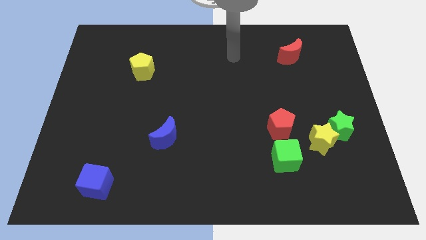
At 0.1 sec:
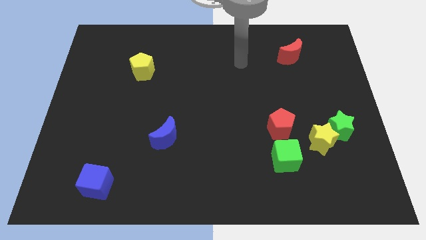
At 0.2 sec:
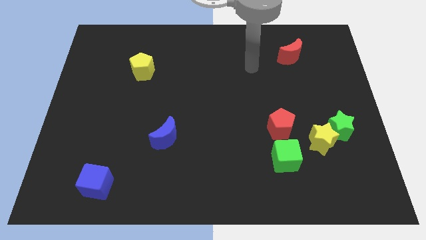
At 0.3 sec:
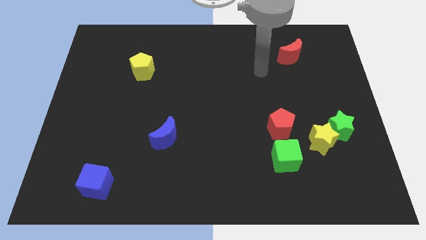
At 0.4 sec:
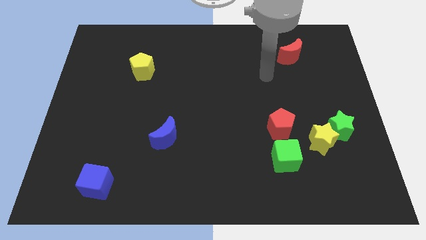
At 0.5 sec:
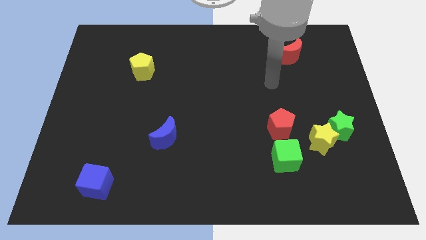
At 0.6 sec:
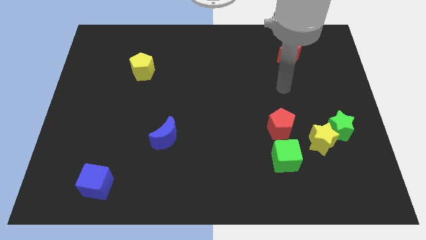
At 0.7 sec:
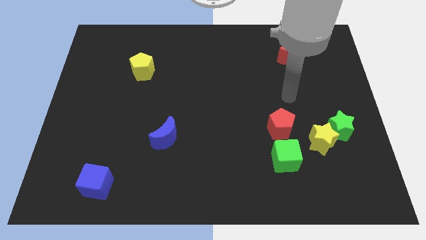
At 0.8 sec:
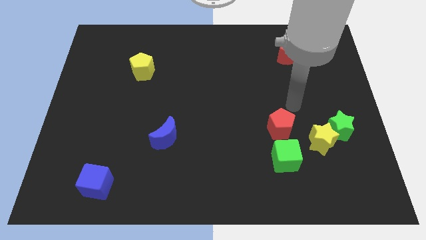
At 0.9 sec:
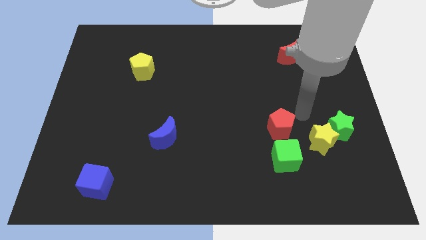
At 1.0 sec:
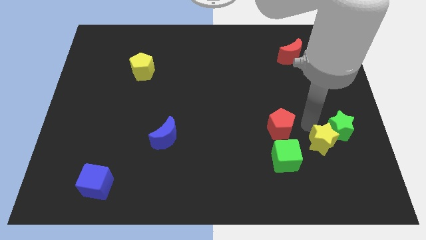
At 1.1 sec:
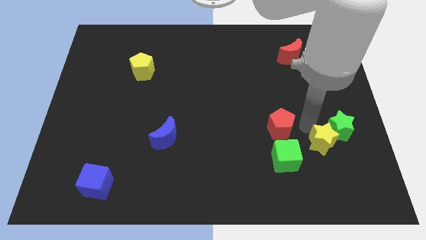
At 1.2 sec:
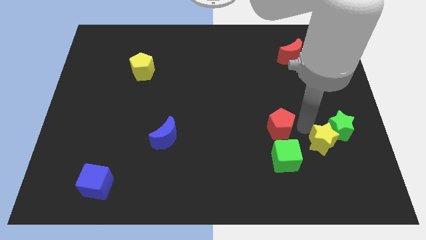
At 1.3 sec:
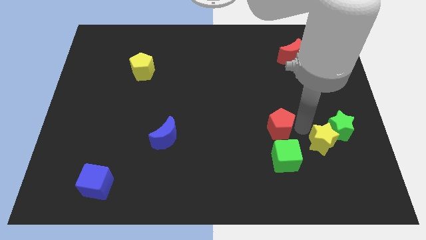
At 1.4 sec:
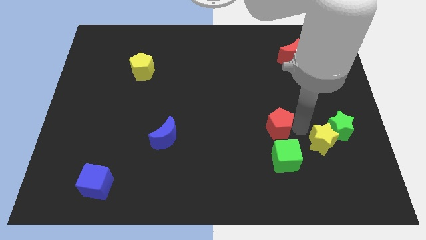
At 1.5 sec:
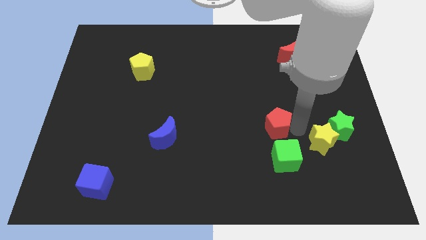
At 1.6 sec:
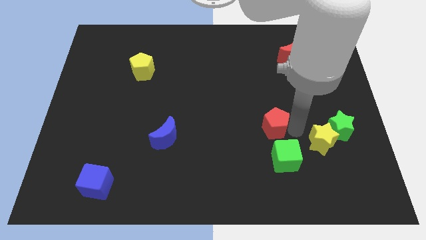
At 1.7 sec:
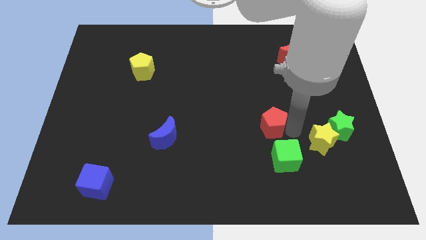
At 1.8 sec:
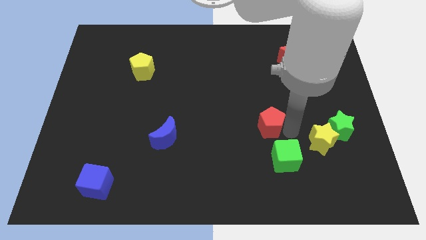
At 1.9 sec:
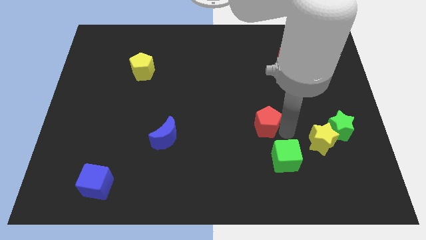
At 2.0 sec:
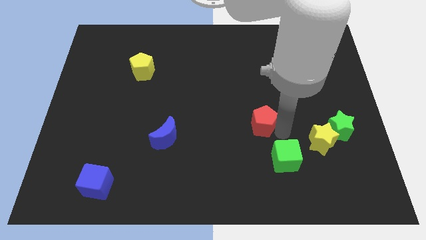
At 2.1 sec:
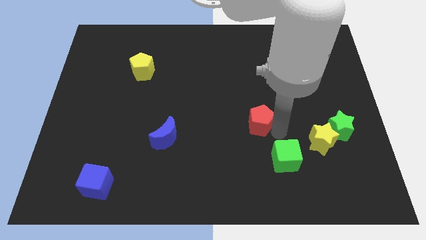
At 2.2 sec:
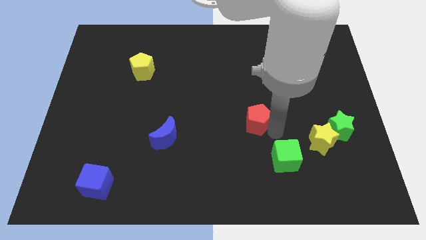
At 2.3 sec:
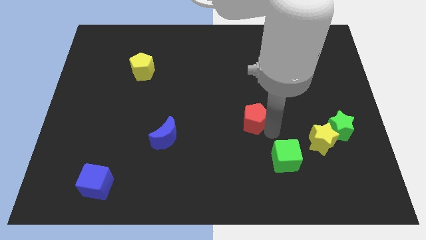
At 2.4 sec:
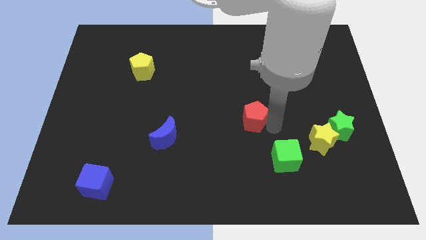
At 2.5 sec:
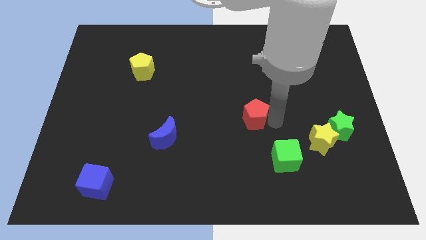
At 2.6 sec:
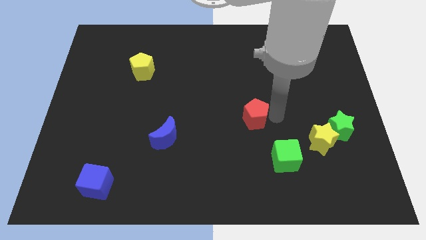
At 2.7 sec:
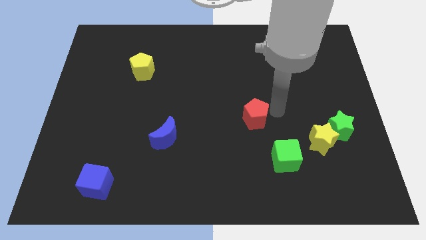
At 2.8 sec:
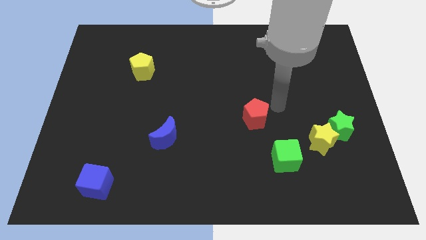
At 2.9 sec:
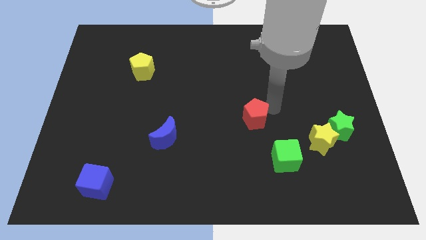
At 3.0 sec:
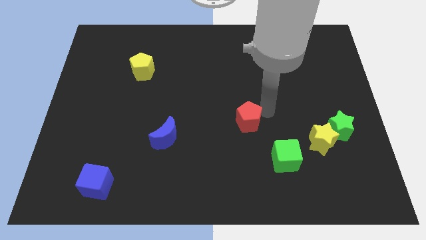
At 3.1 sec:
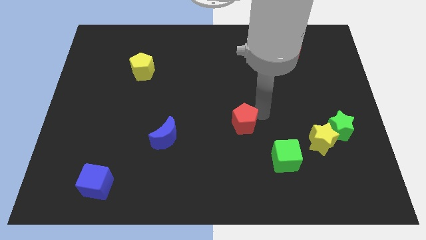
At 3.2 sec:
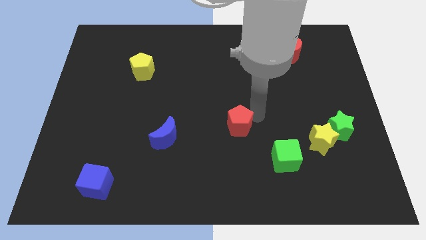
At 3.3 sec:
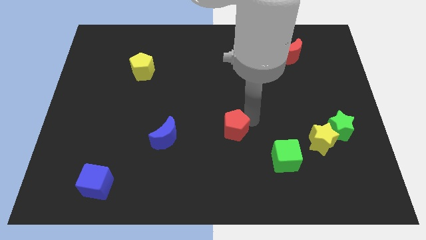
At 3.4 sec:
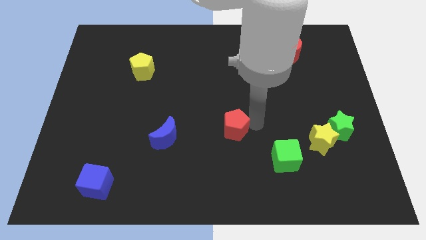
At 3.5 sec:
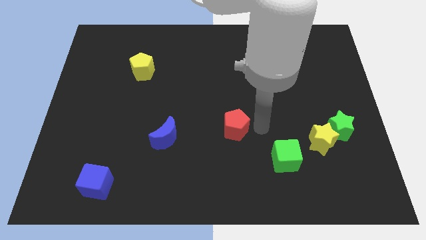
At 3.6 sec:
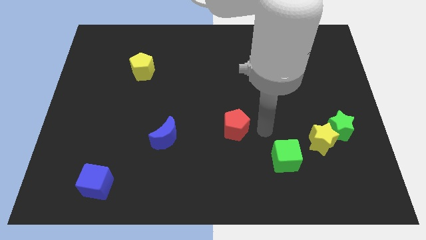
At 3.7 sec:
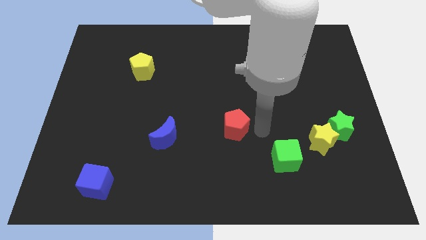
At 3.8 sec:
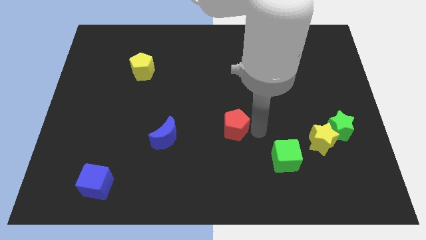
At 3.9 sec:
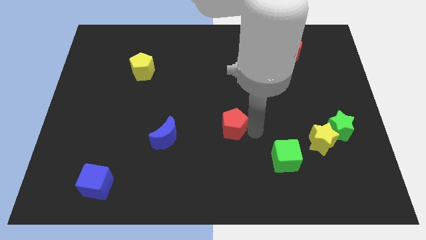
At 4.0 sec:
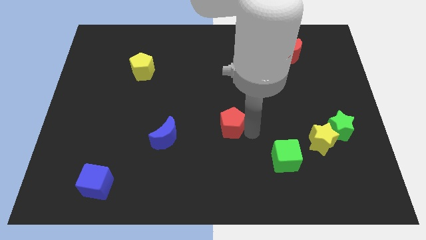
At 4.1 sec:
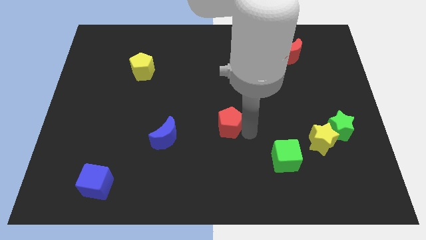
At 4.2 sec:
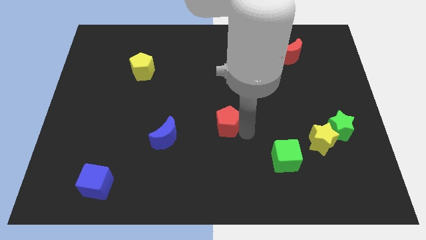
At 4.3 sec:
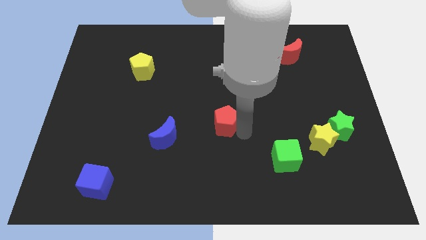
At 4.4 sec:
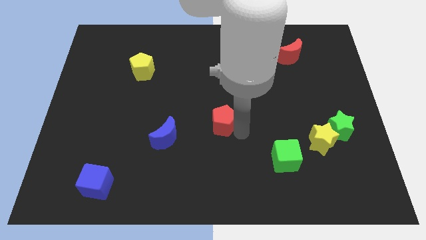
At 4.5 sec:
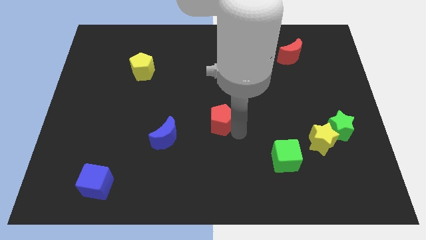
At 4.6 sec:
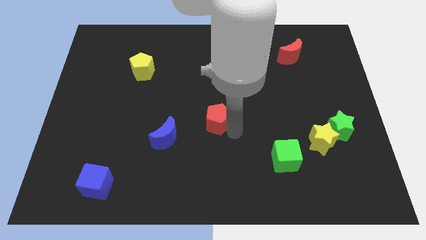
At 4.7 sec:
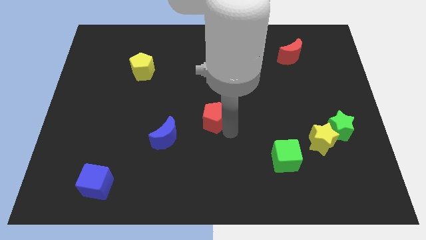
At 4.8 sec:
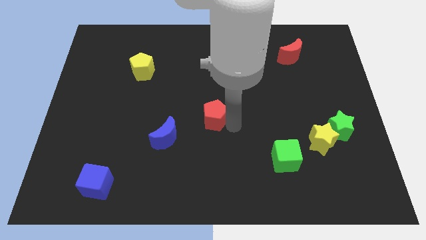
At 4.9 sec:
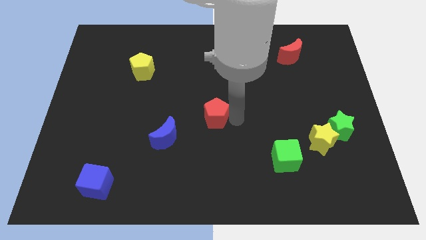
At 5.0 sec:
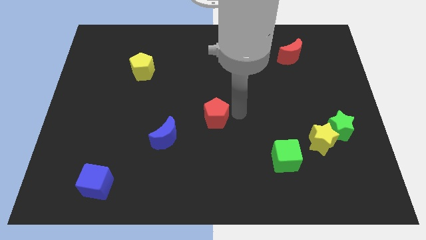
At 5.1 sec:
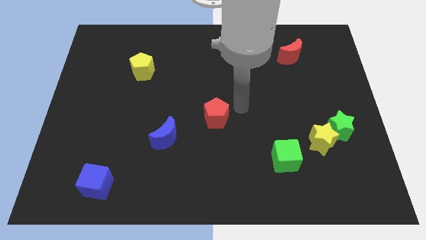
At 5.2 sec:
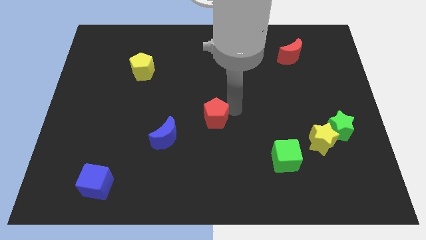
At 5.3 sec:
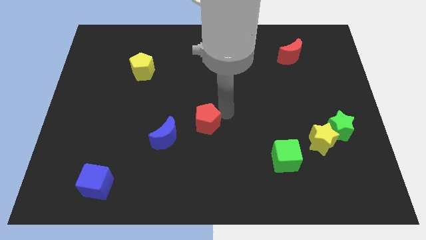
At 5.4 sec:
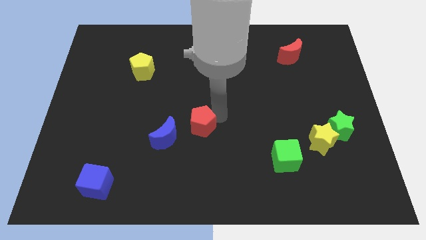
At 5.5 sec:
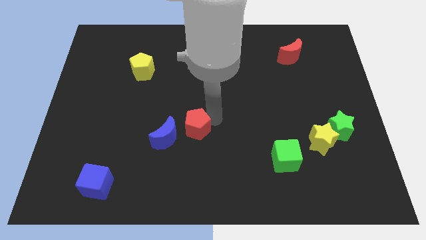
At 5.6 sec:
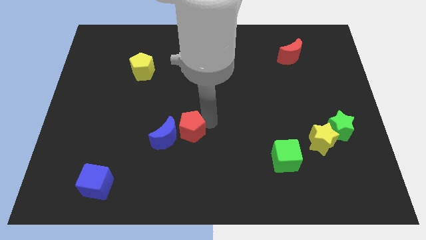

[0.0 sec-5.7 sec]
push the red pentagon to the blue moon

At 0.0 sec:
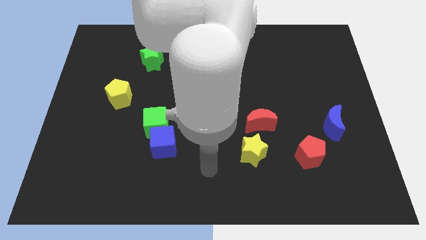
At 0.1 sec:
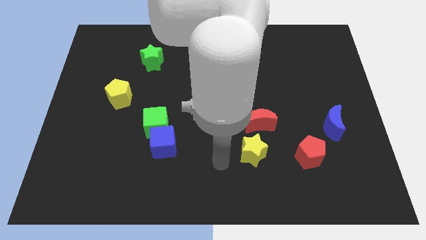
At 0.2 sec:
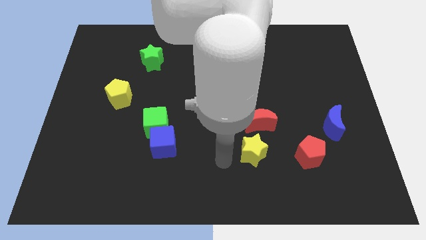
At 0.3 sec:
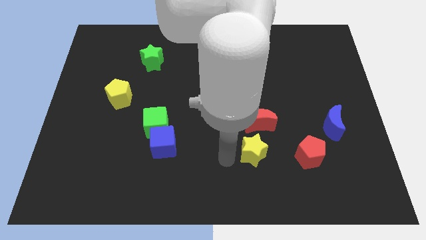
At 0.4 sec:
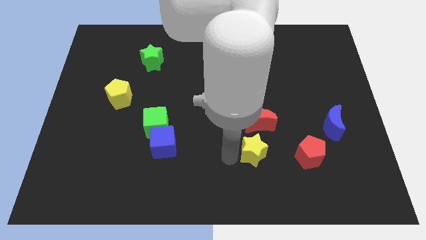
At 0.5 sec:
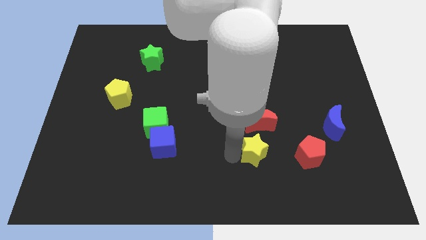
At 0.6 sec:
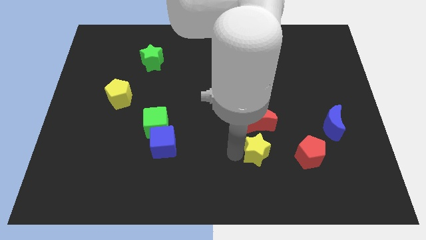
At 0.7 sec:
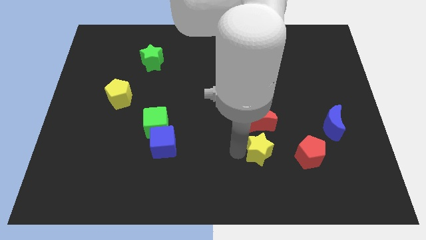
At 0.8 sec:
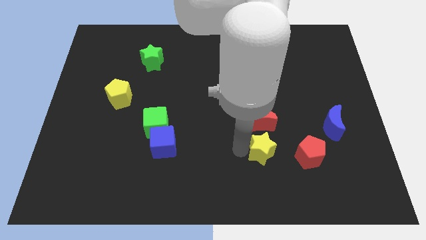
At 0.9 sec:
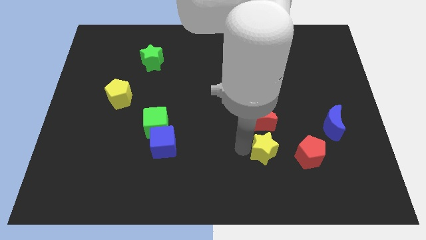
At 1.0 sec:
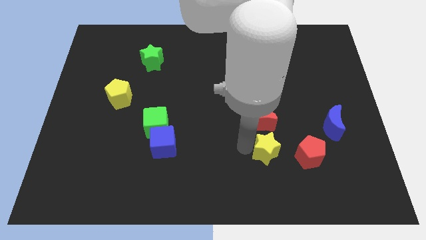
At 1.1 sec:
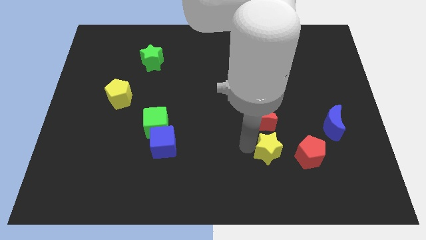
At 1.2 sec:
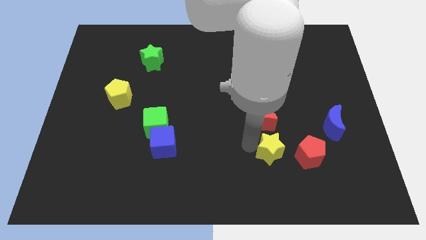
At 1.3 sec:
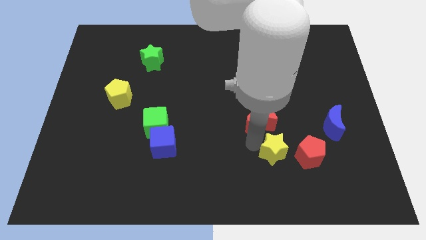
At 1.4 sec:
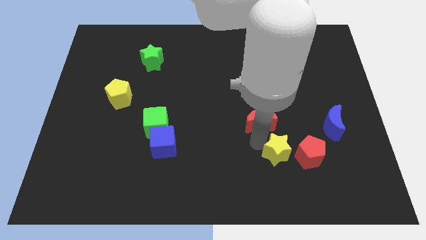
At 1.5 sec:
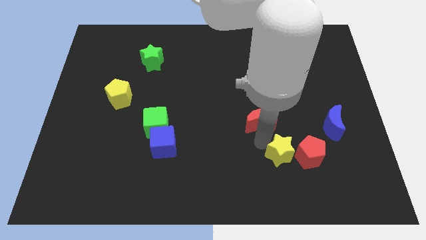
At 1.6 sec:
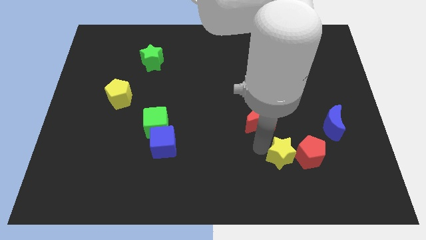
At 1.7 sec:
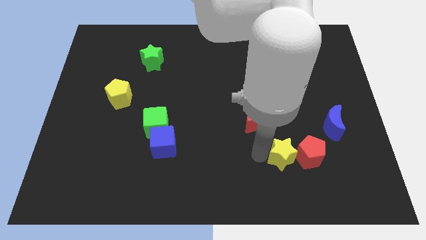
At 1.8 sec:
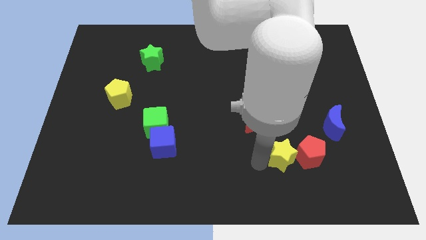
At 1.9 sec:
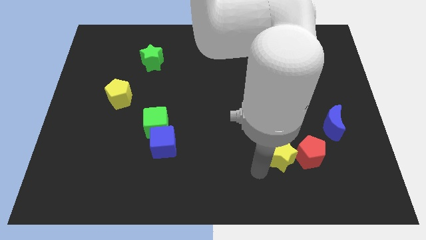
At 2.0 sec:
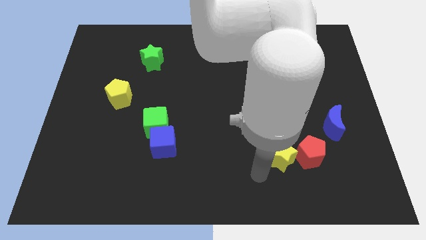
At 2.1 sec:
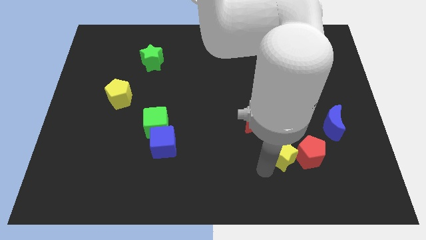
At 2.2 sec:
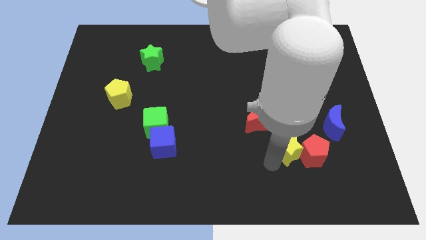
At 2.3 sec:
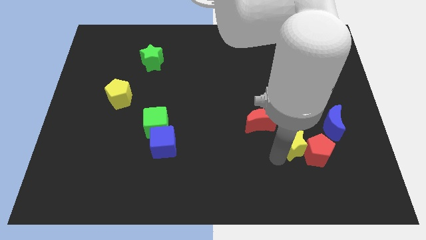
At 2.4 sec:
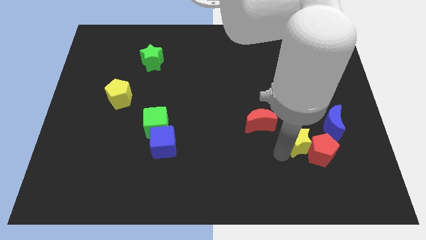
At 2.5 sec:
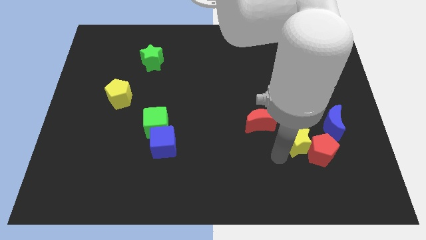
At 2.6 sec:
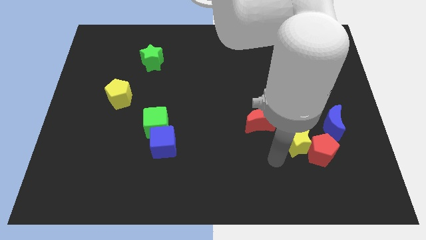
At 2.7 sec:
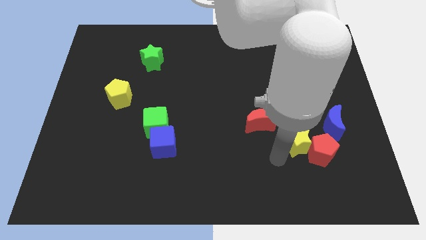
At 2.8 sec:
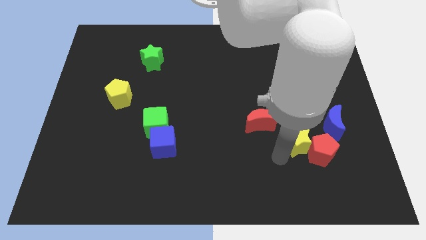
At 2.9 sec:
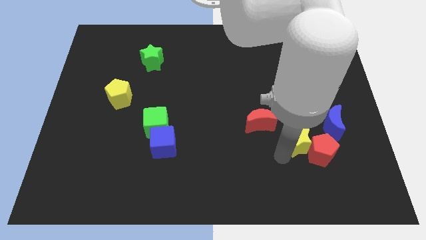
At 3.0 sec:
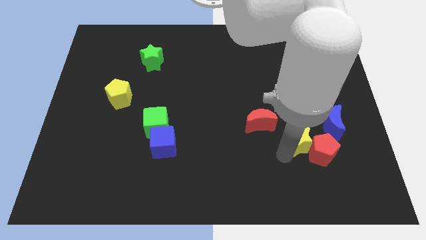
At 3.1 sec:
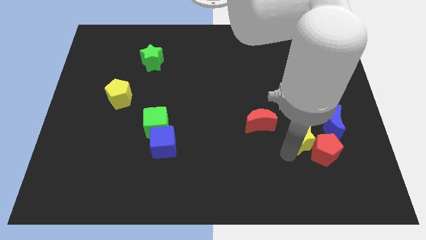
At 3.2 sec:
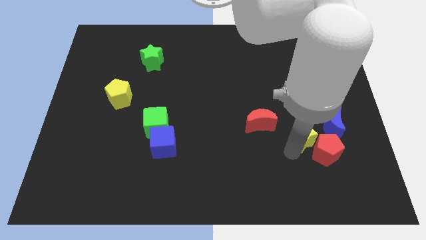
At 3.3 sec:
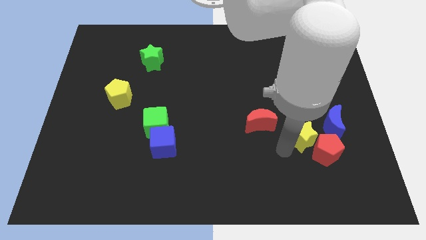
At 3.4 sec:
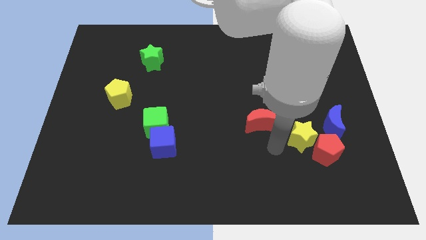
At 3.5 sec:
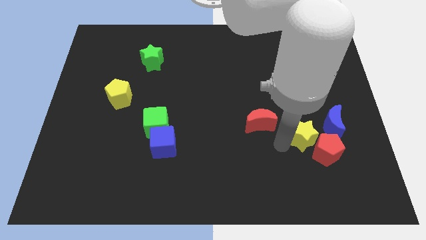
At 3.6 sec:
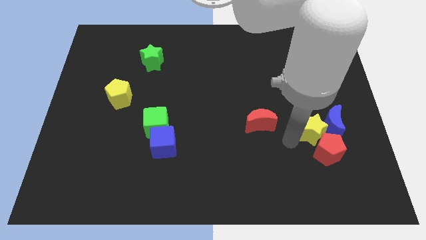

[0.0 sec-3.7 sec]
slide the yellow star towards the blue moon
